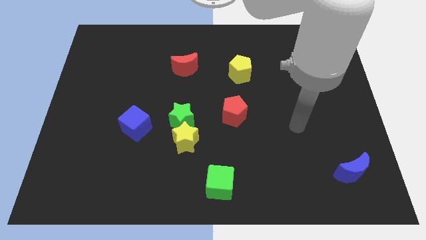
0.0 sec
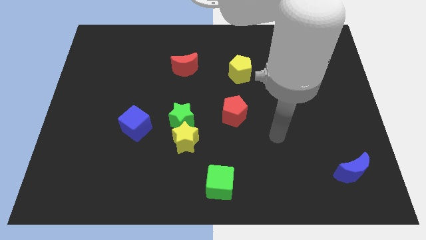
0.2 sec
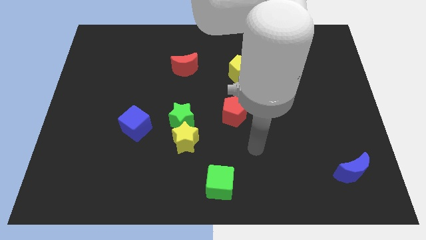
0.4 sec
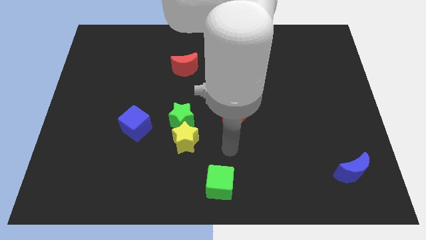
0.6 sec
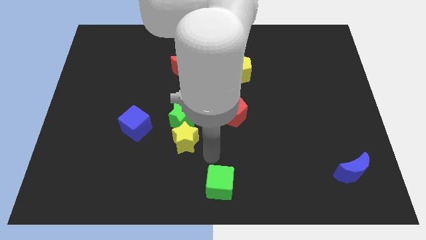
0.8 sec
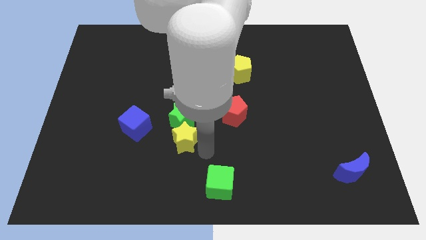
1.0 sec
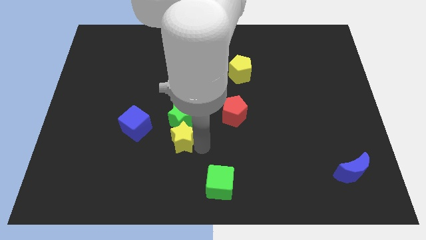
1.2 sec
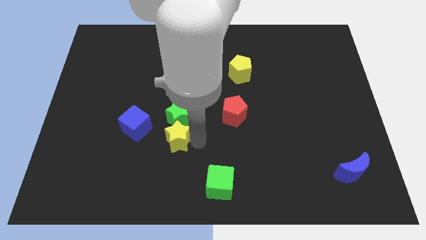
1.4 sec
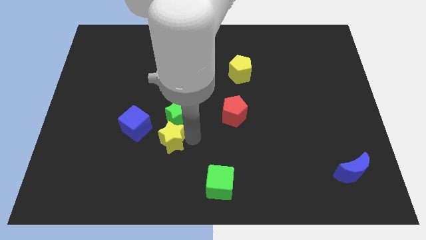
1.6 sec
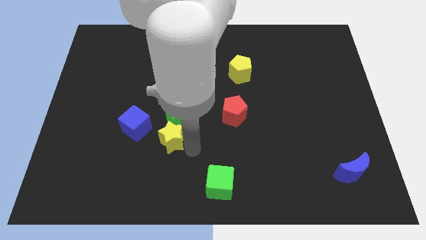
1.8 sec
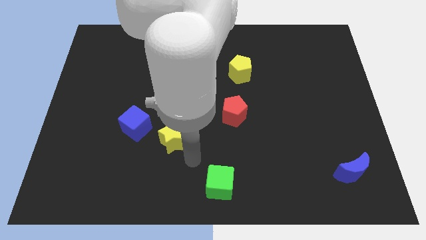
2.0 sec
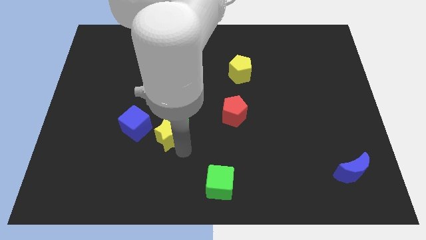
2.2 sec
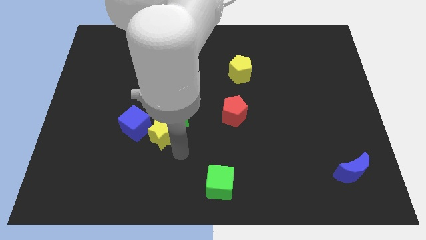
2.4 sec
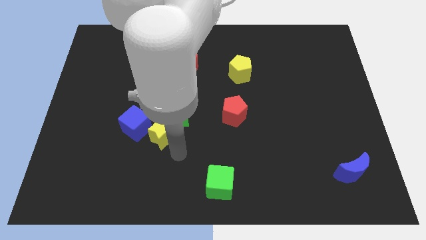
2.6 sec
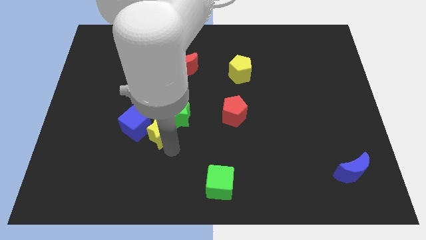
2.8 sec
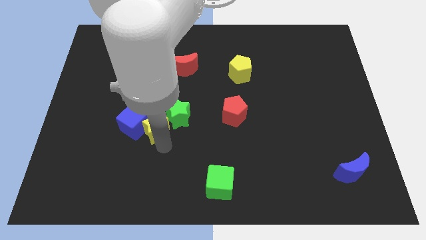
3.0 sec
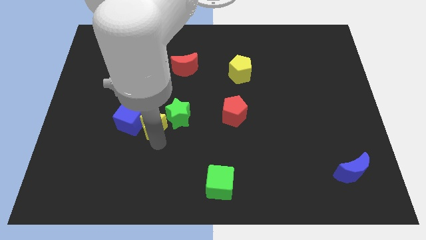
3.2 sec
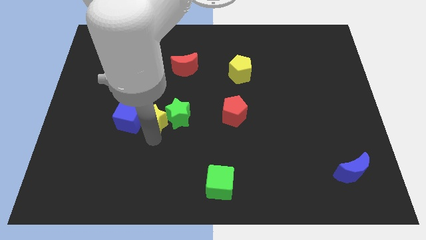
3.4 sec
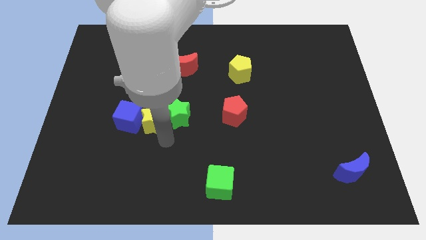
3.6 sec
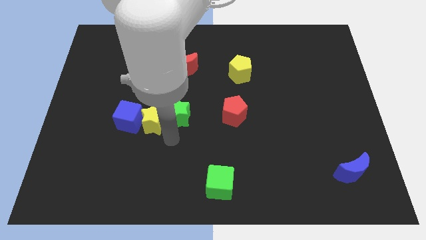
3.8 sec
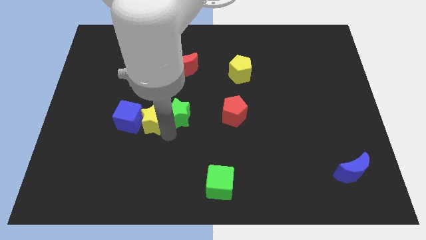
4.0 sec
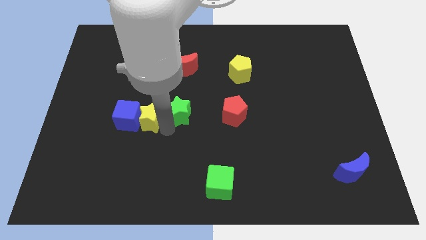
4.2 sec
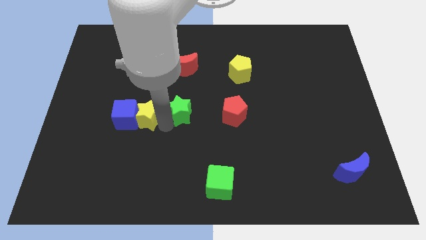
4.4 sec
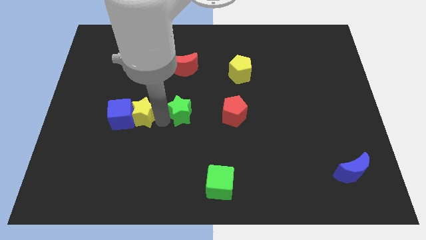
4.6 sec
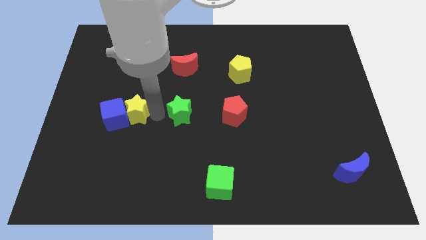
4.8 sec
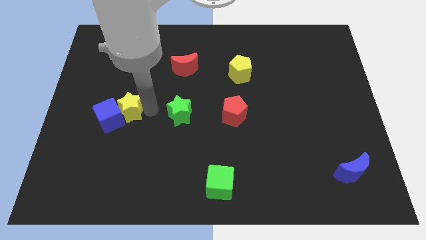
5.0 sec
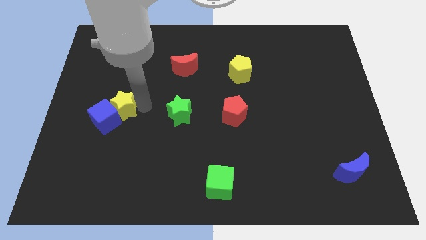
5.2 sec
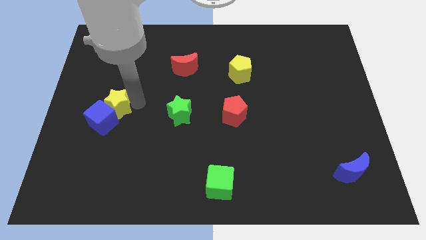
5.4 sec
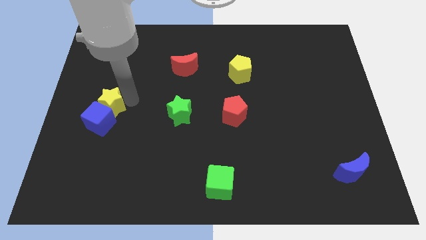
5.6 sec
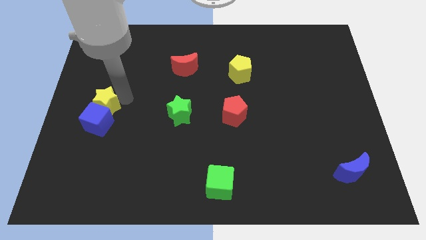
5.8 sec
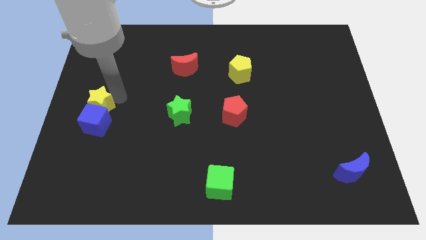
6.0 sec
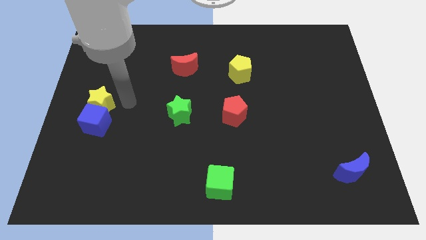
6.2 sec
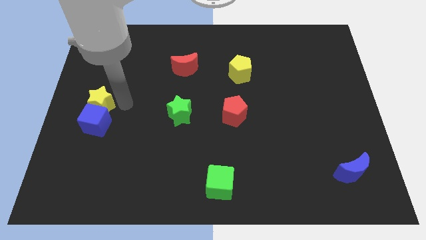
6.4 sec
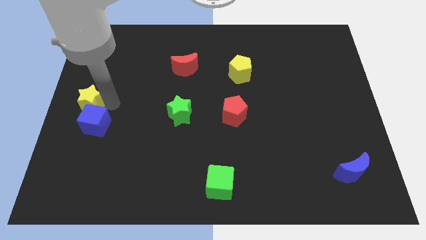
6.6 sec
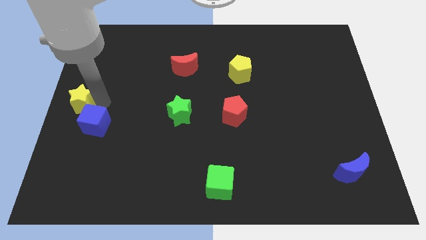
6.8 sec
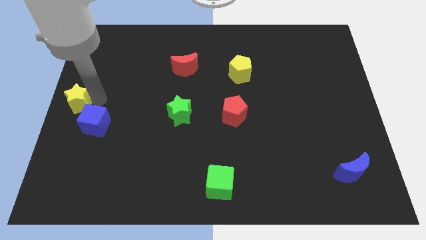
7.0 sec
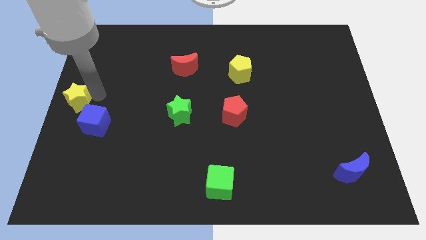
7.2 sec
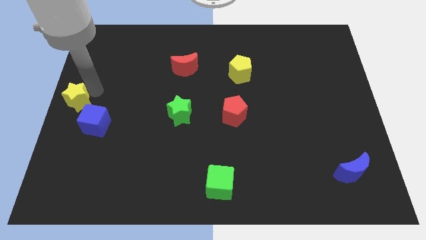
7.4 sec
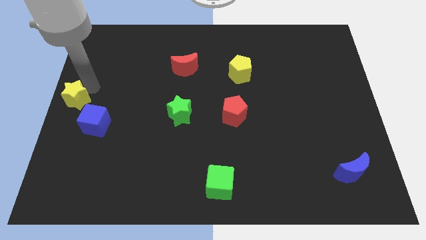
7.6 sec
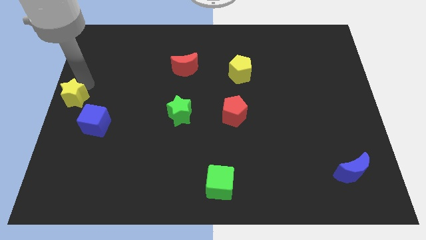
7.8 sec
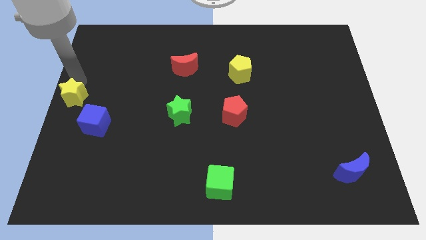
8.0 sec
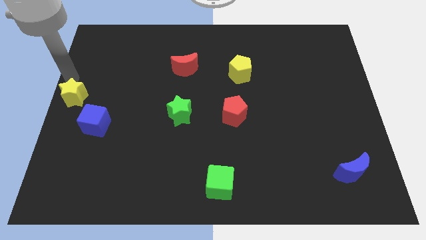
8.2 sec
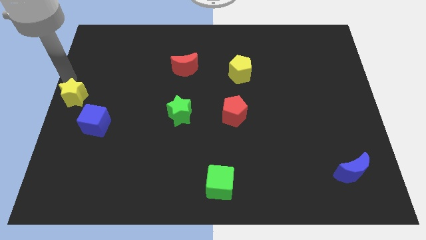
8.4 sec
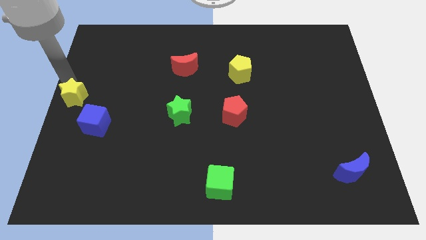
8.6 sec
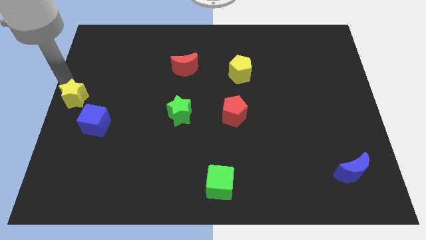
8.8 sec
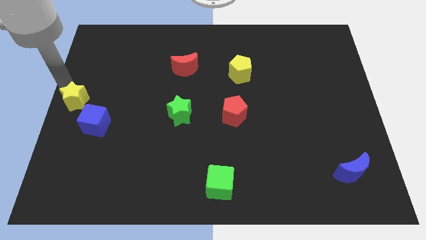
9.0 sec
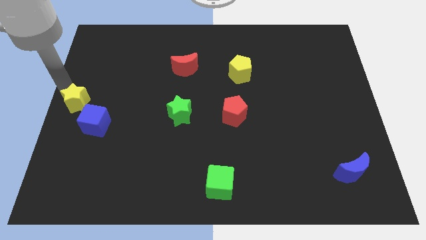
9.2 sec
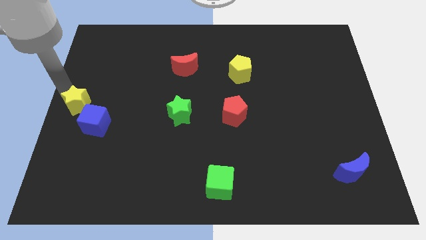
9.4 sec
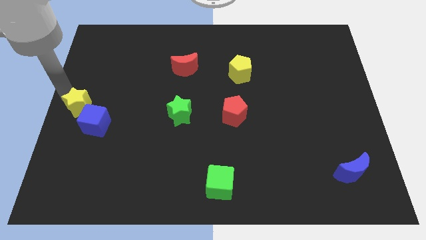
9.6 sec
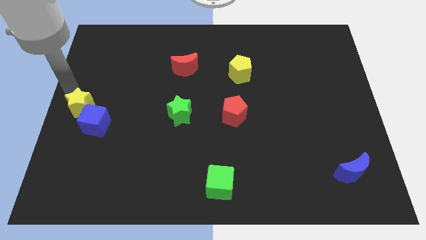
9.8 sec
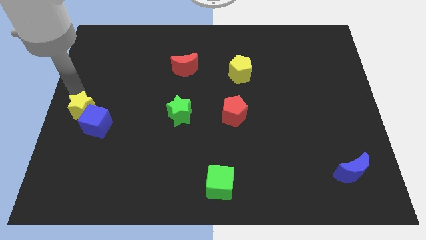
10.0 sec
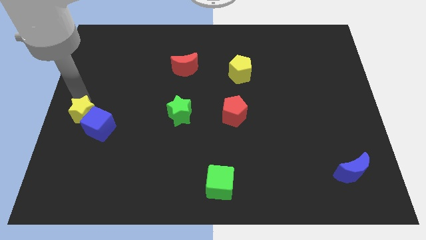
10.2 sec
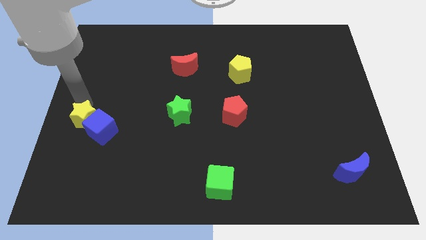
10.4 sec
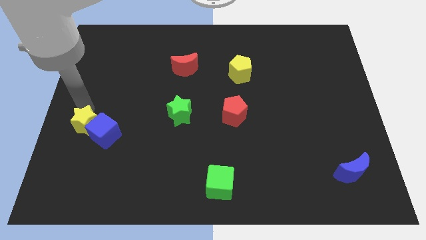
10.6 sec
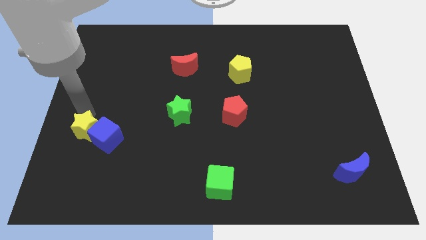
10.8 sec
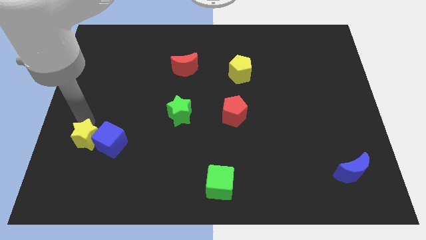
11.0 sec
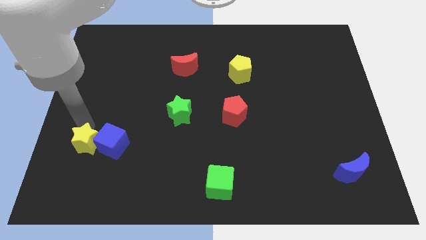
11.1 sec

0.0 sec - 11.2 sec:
move the yellow star to the top left side of the blue cube

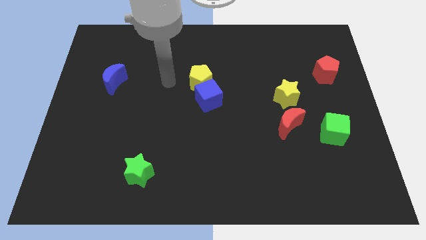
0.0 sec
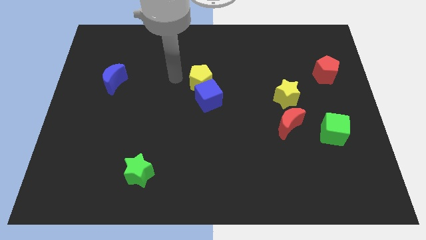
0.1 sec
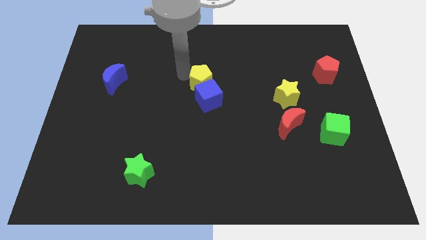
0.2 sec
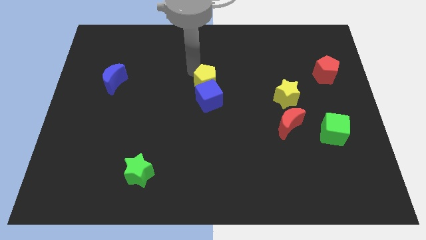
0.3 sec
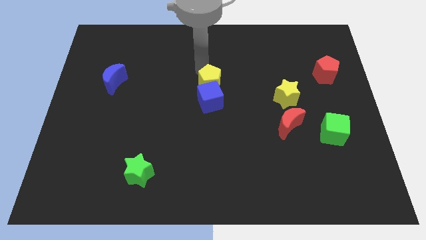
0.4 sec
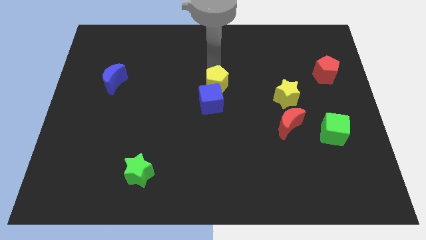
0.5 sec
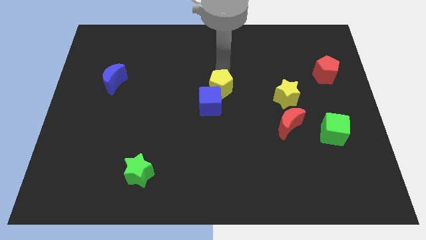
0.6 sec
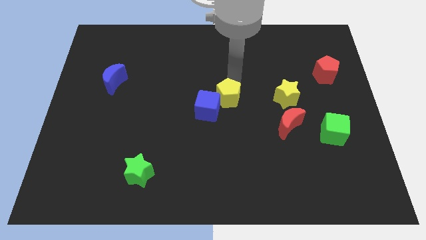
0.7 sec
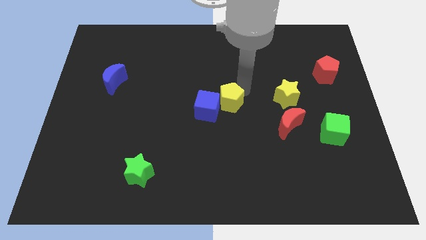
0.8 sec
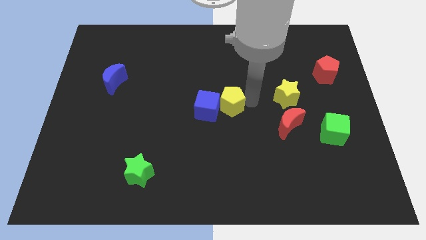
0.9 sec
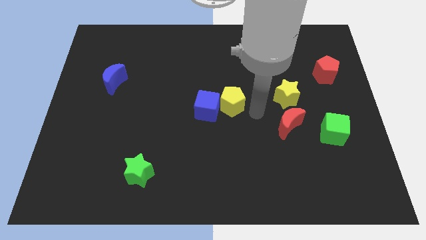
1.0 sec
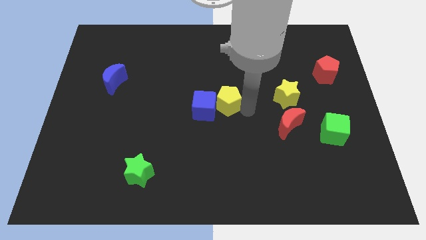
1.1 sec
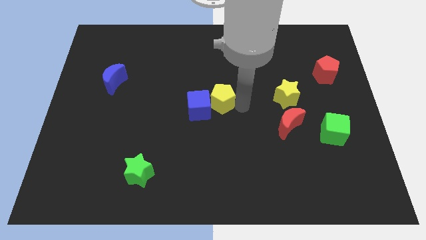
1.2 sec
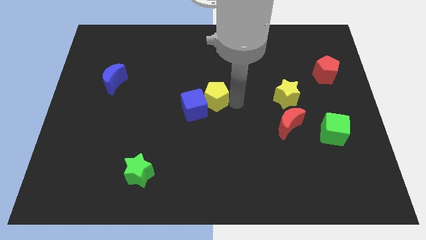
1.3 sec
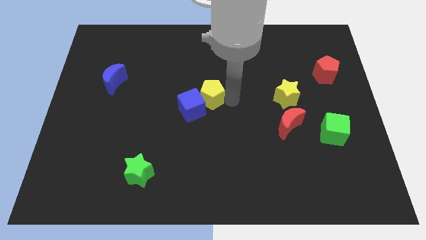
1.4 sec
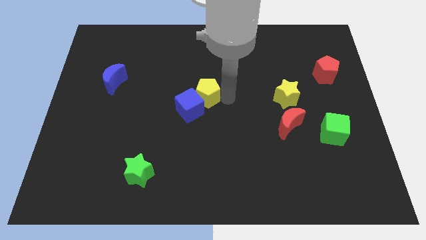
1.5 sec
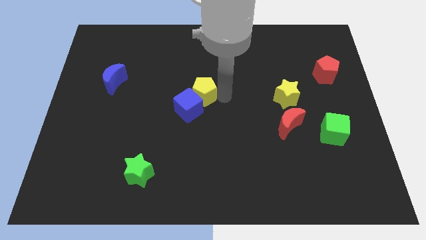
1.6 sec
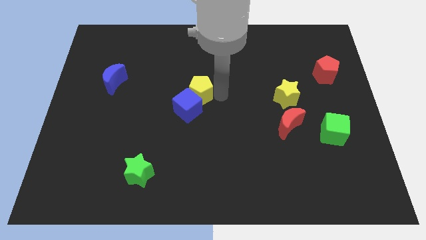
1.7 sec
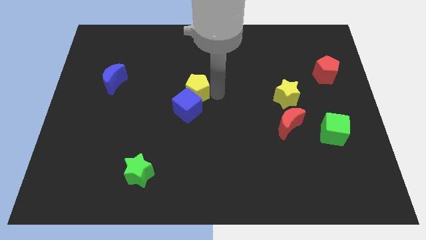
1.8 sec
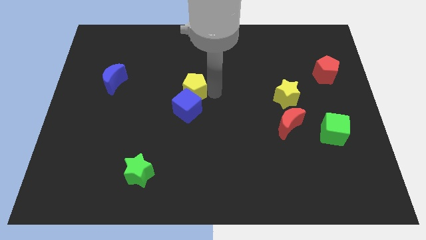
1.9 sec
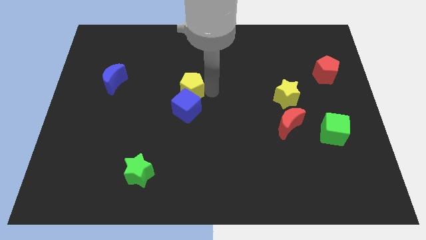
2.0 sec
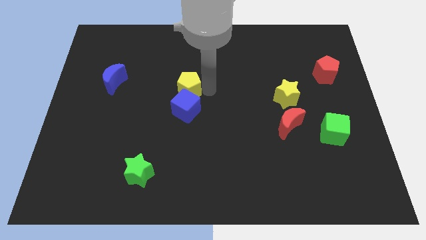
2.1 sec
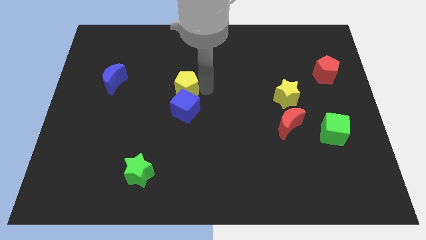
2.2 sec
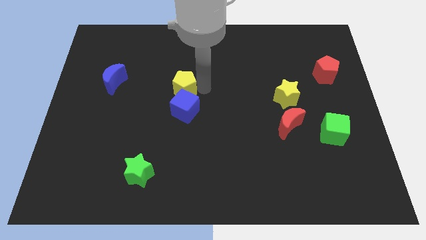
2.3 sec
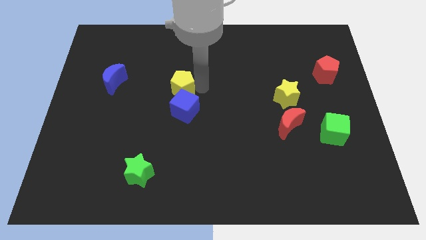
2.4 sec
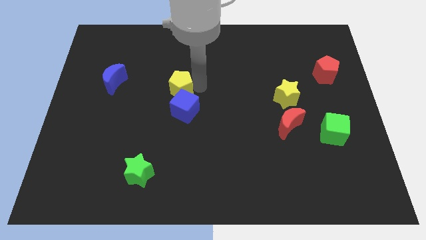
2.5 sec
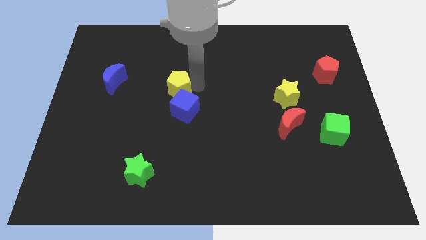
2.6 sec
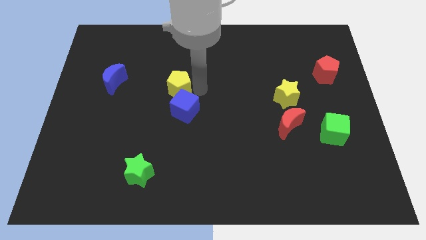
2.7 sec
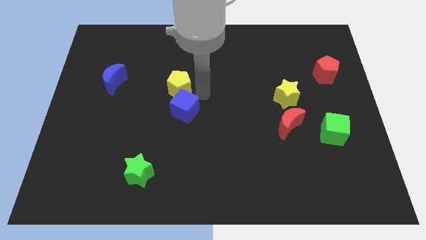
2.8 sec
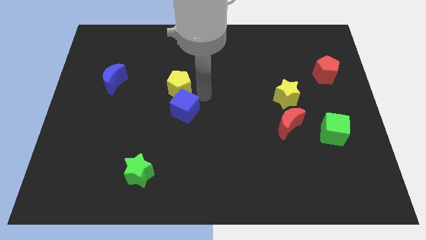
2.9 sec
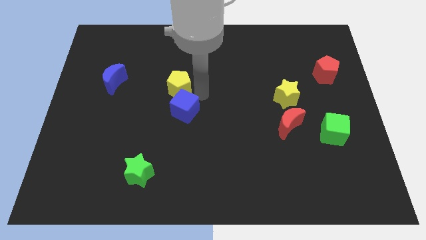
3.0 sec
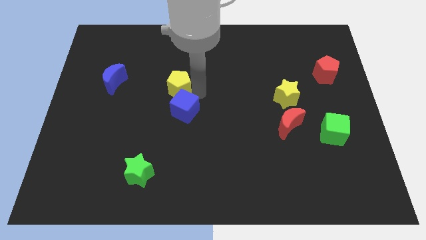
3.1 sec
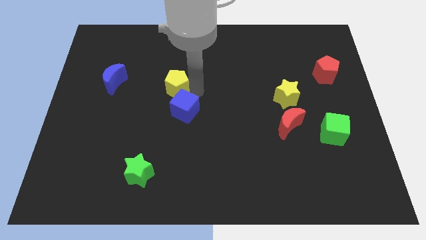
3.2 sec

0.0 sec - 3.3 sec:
put the yellow pentagon right of the blue moon
